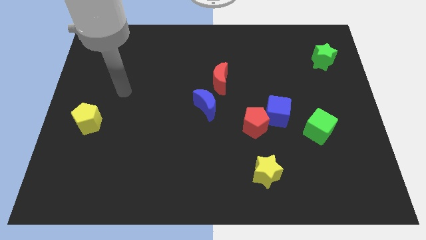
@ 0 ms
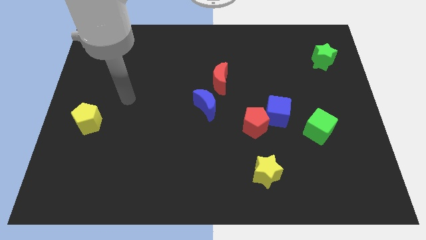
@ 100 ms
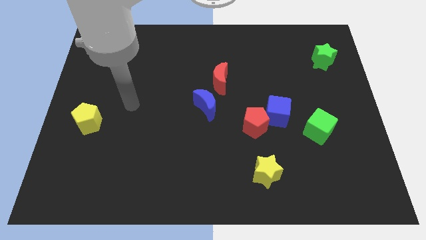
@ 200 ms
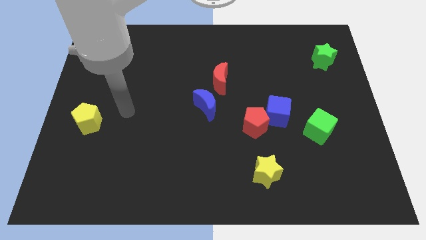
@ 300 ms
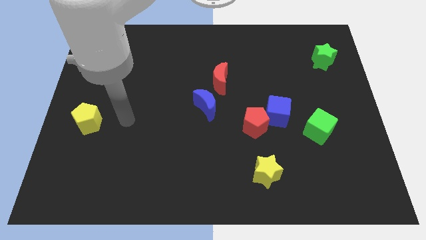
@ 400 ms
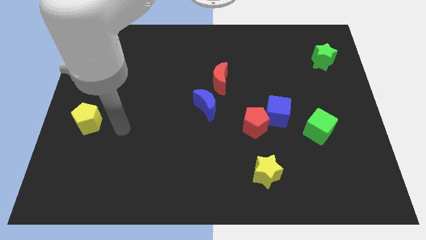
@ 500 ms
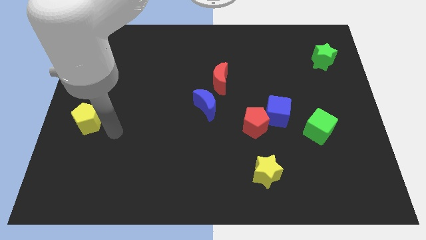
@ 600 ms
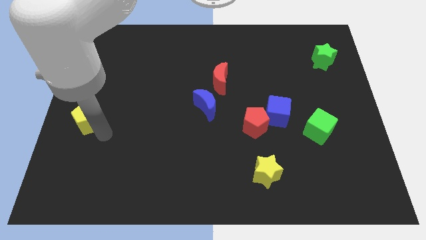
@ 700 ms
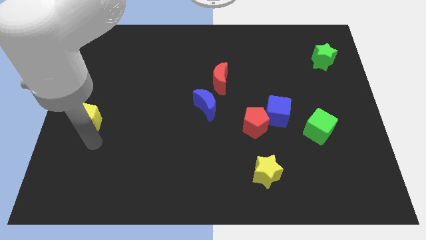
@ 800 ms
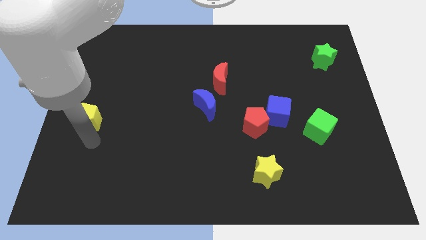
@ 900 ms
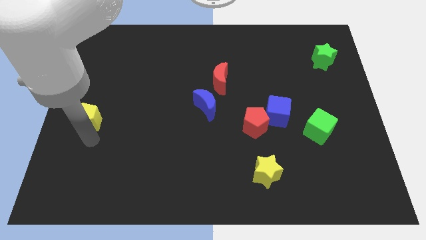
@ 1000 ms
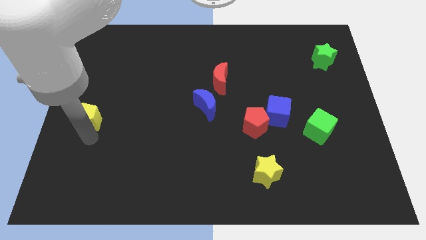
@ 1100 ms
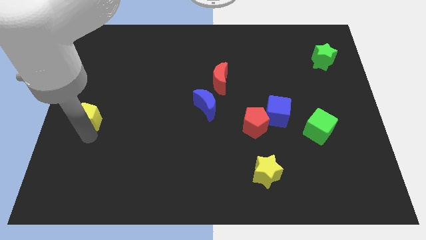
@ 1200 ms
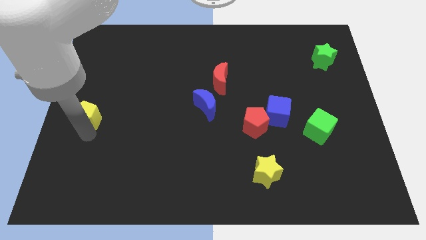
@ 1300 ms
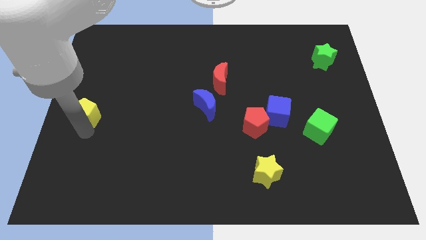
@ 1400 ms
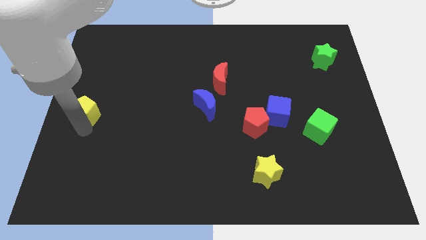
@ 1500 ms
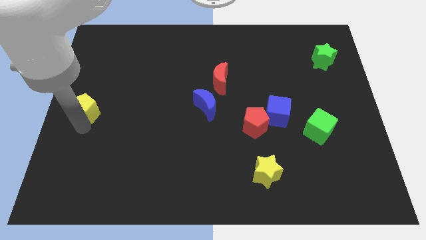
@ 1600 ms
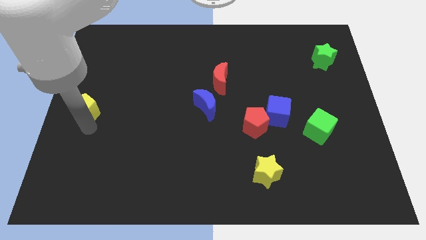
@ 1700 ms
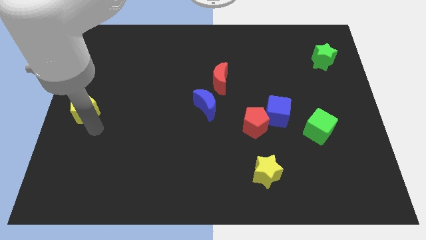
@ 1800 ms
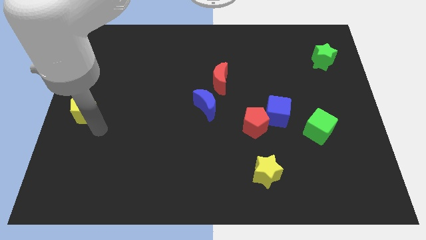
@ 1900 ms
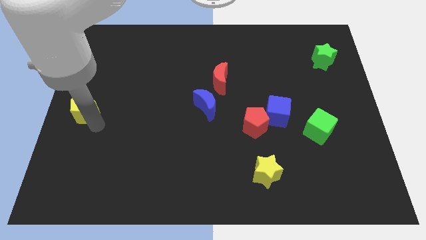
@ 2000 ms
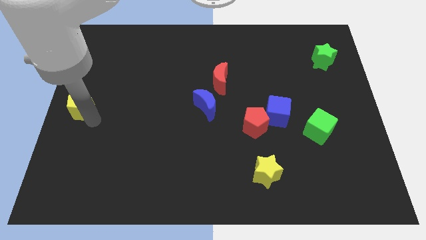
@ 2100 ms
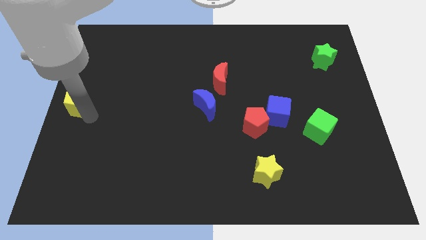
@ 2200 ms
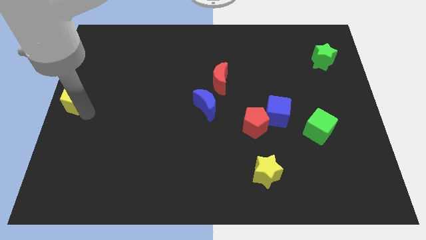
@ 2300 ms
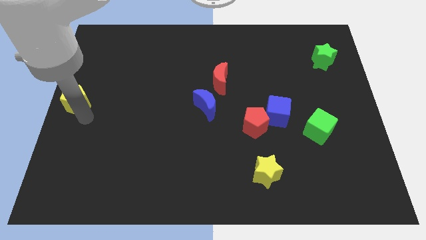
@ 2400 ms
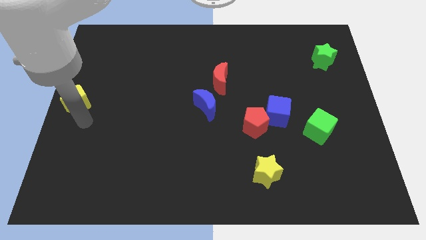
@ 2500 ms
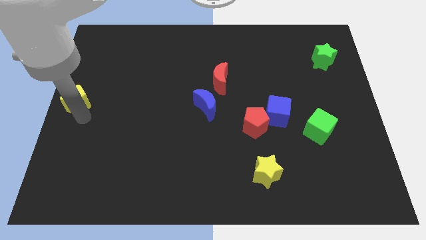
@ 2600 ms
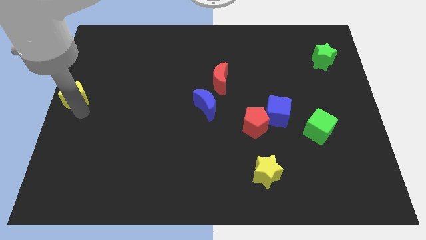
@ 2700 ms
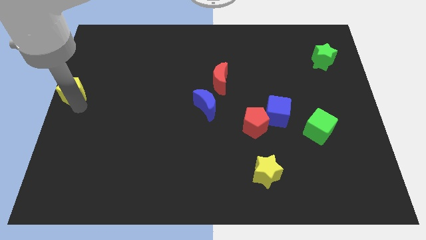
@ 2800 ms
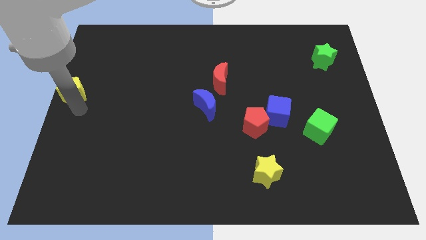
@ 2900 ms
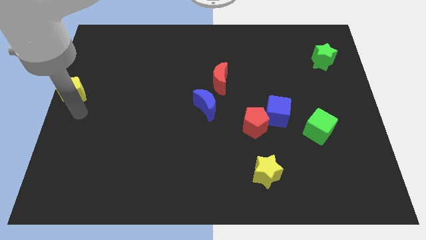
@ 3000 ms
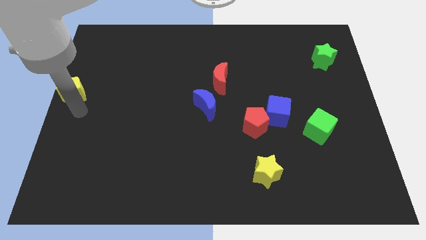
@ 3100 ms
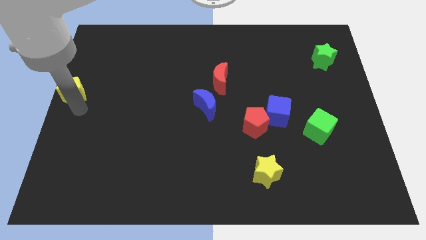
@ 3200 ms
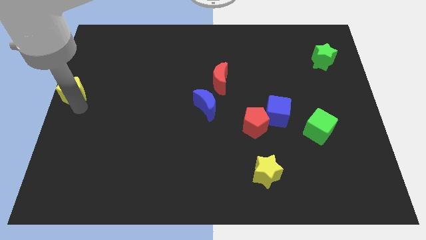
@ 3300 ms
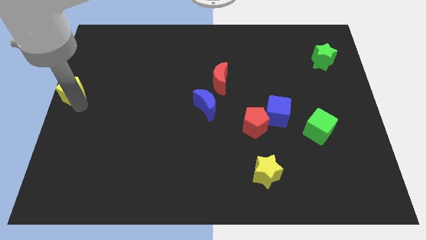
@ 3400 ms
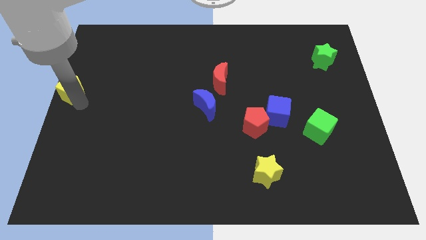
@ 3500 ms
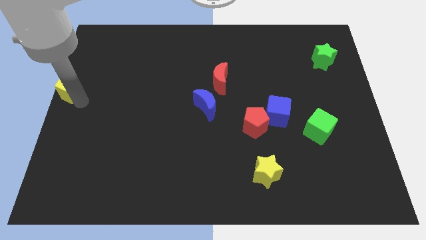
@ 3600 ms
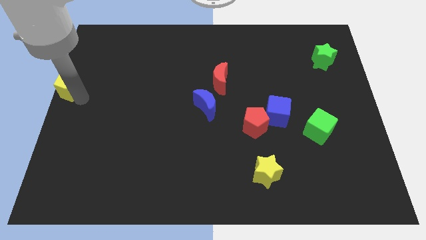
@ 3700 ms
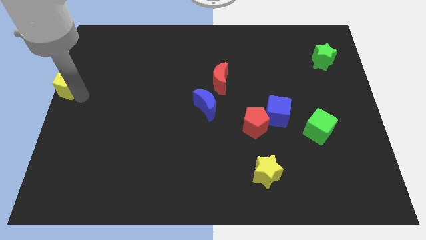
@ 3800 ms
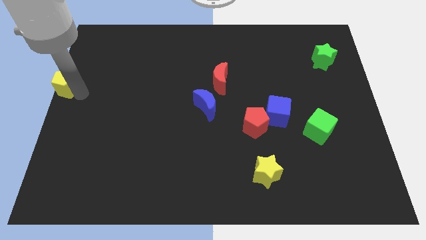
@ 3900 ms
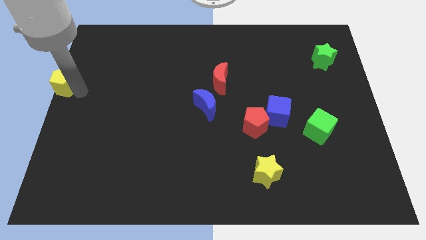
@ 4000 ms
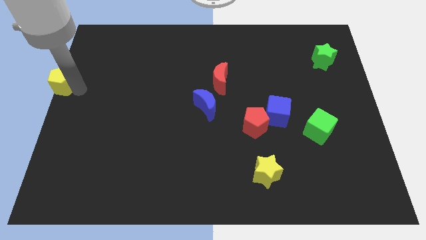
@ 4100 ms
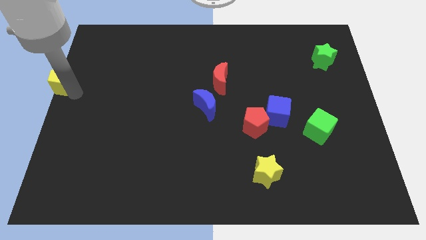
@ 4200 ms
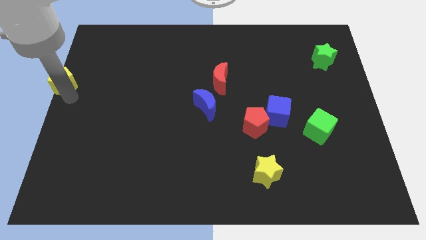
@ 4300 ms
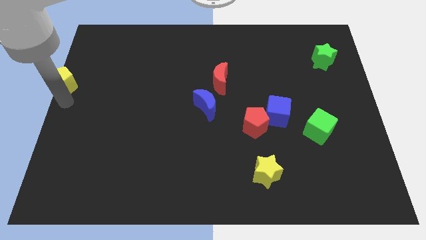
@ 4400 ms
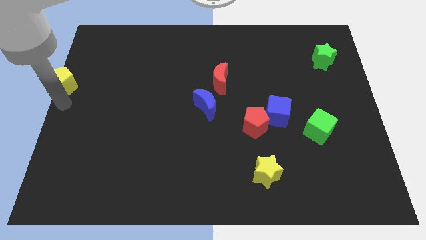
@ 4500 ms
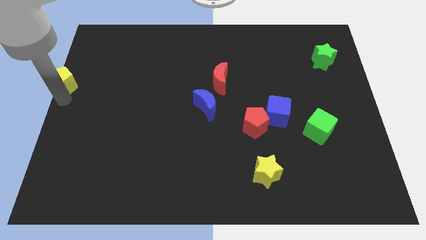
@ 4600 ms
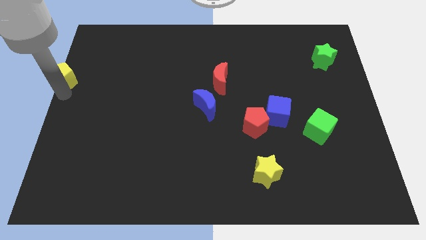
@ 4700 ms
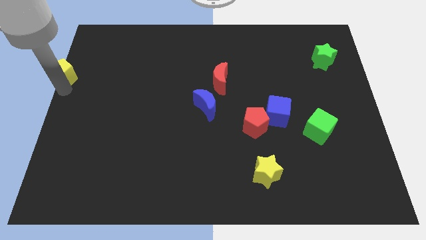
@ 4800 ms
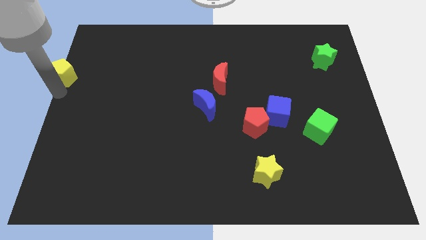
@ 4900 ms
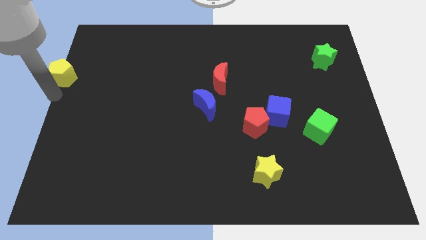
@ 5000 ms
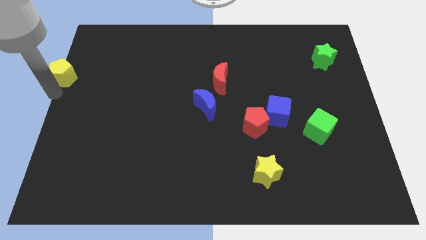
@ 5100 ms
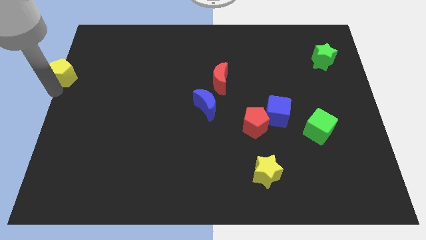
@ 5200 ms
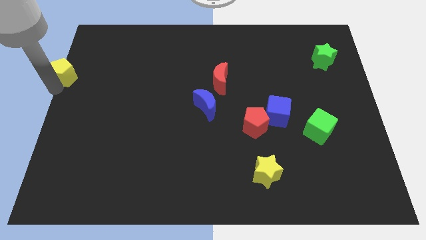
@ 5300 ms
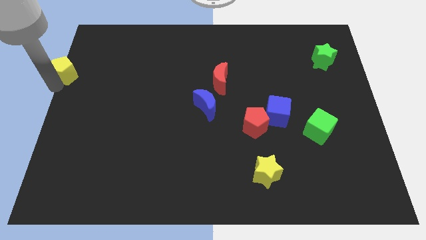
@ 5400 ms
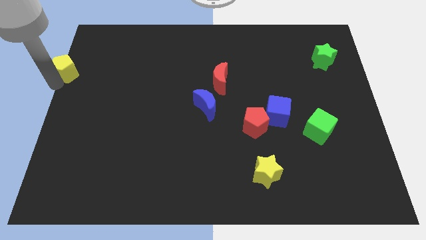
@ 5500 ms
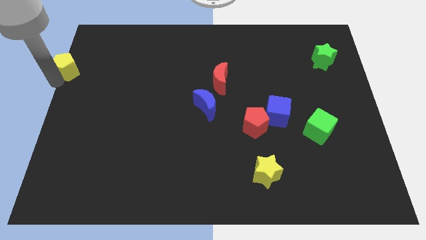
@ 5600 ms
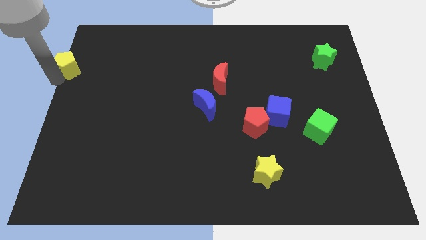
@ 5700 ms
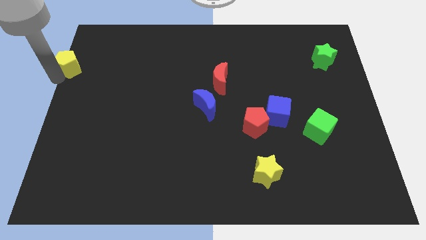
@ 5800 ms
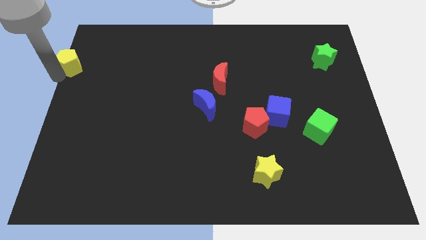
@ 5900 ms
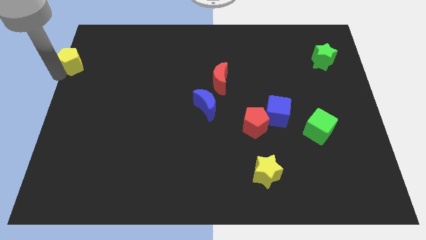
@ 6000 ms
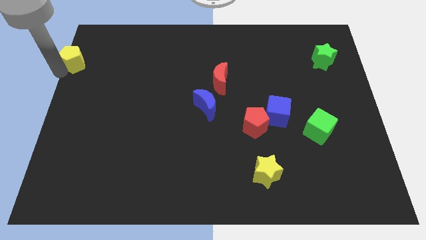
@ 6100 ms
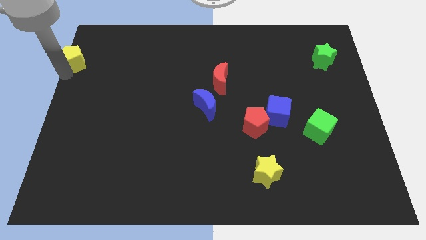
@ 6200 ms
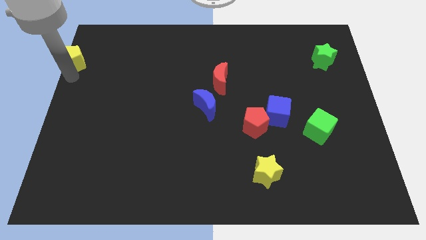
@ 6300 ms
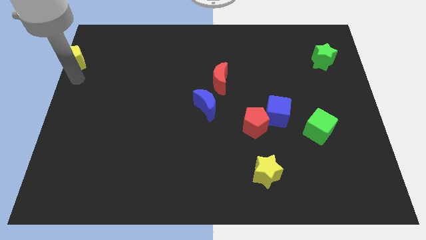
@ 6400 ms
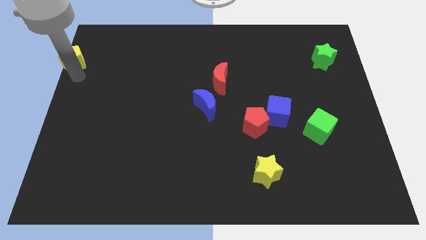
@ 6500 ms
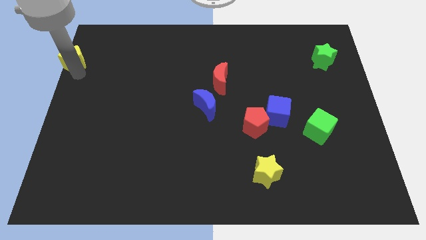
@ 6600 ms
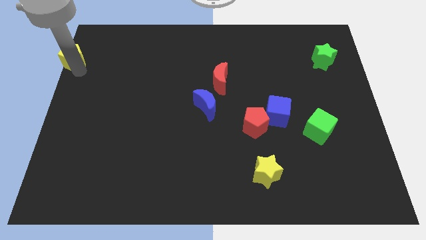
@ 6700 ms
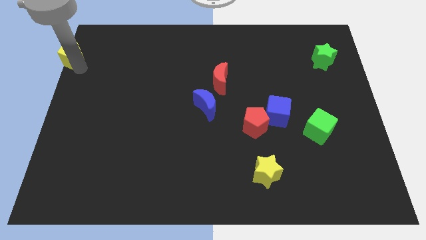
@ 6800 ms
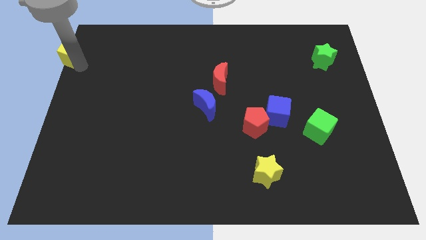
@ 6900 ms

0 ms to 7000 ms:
push the yellow pentagon to the top left of the board
